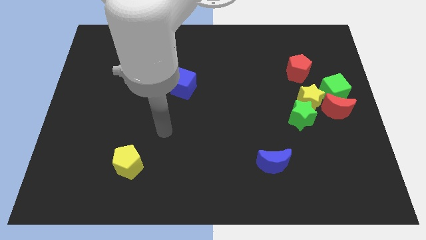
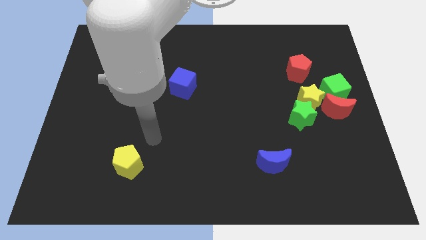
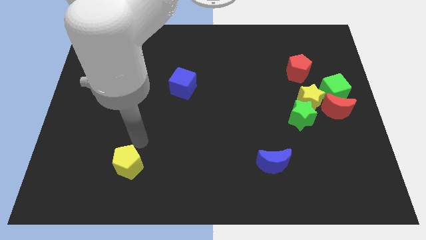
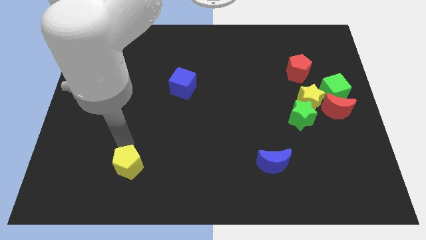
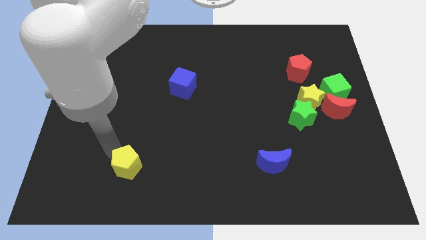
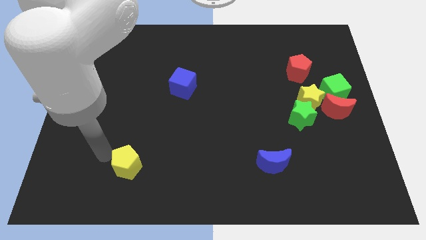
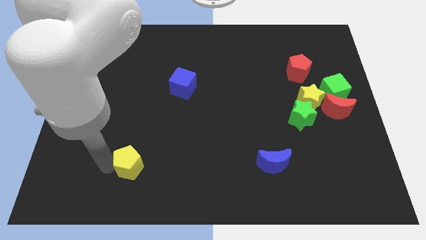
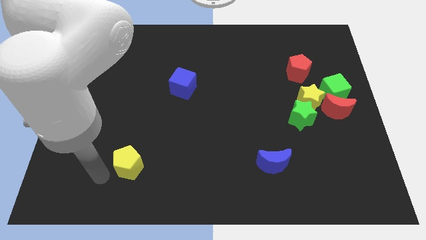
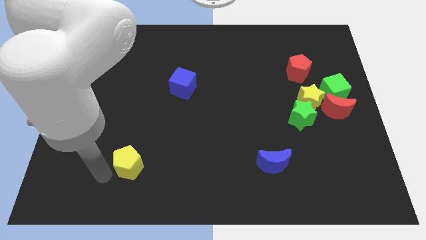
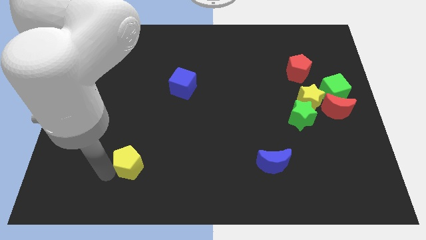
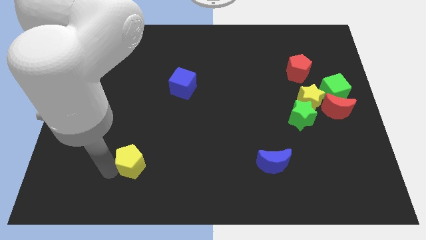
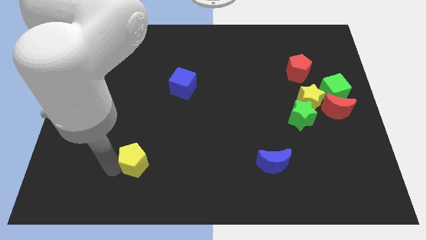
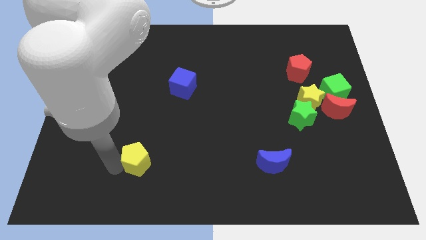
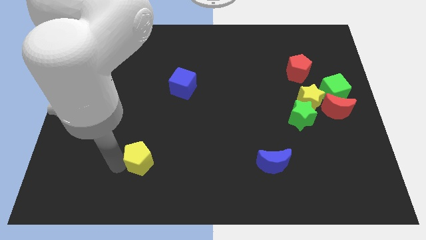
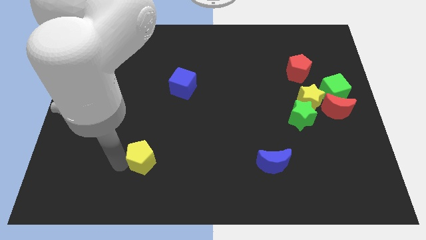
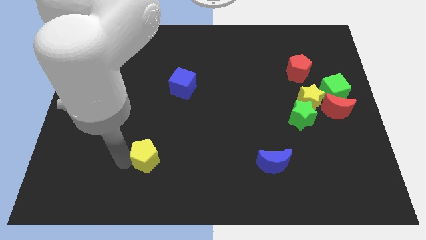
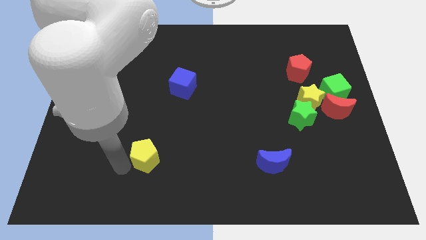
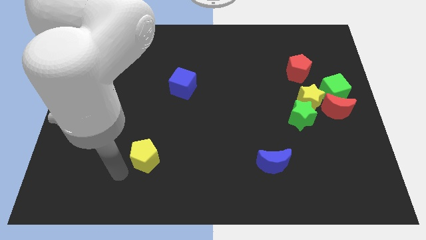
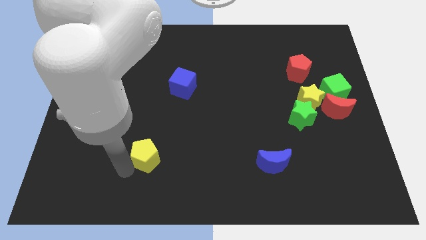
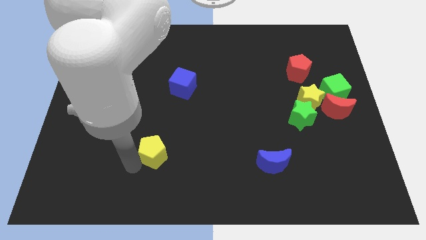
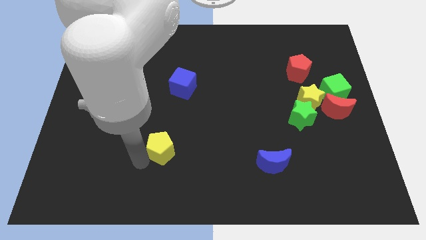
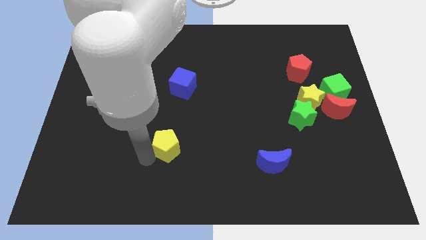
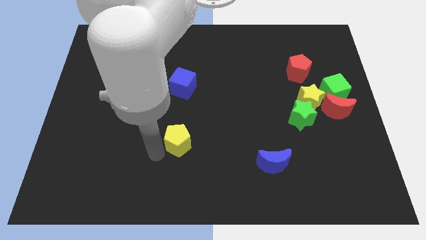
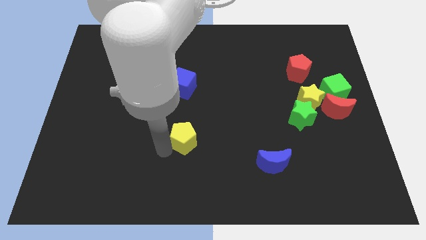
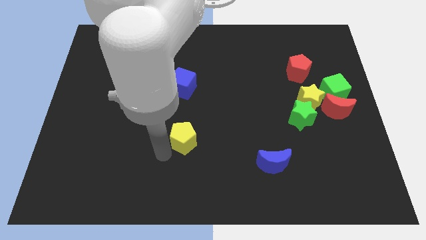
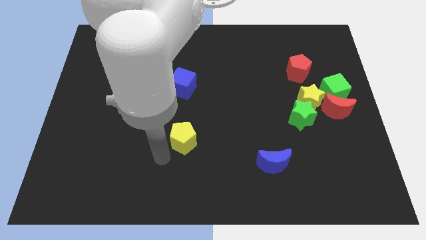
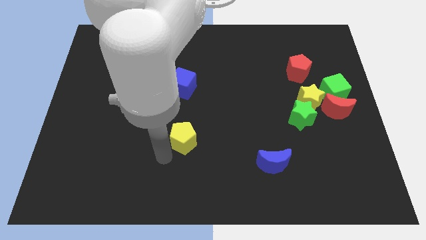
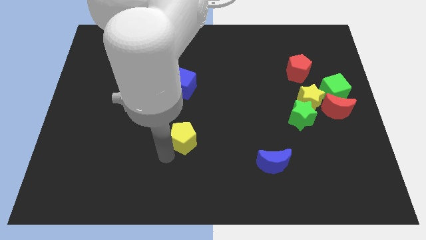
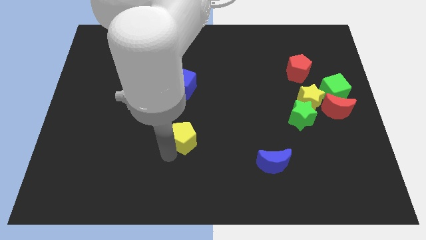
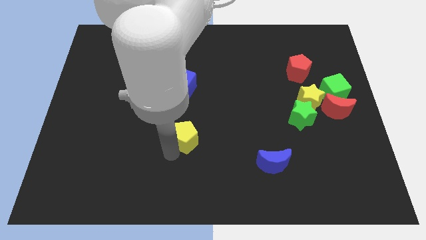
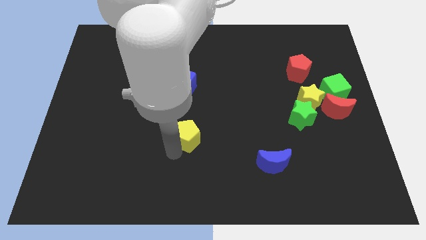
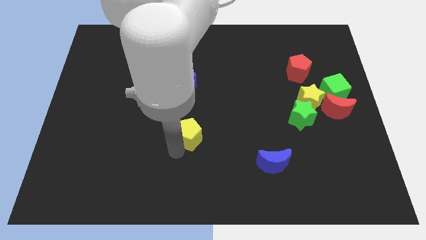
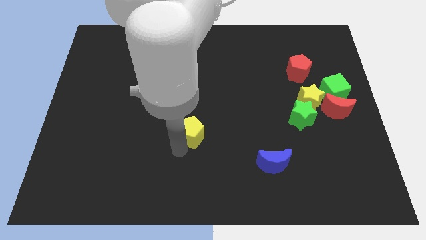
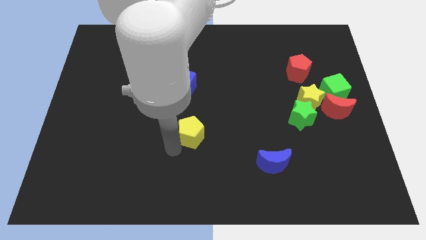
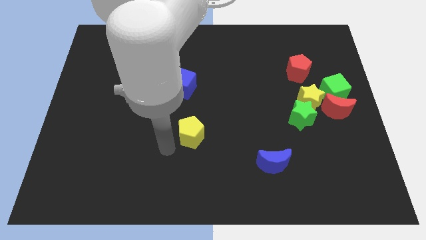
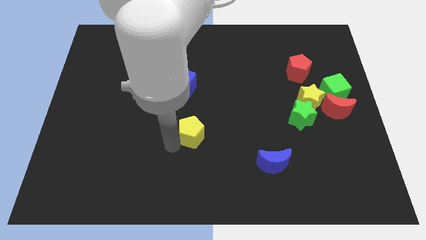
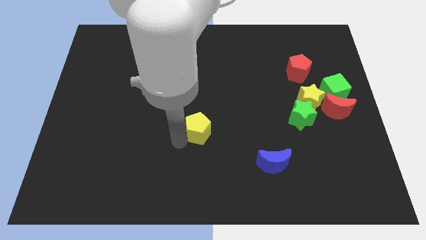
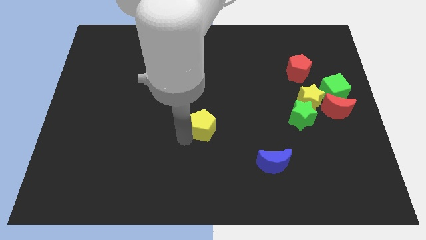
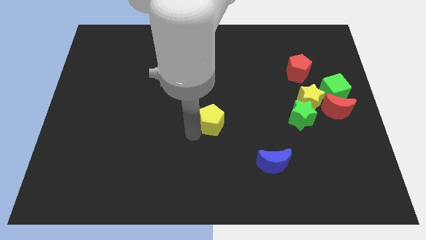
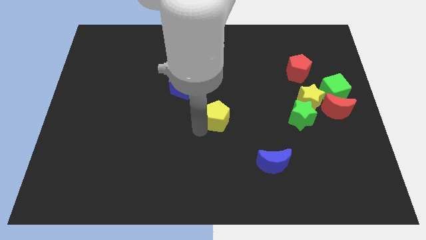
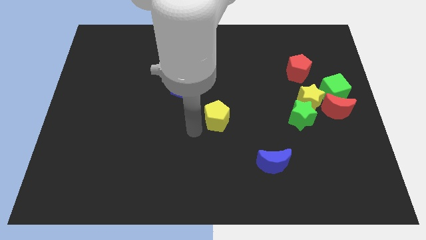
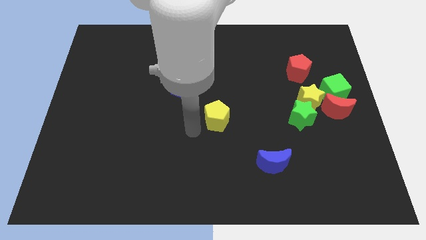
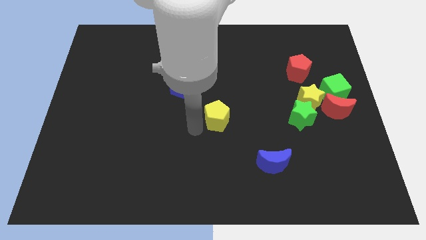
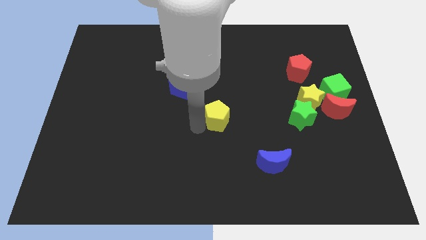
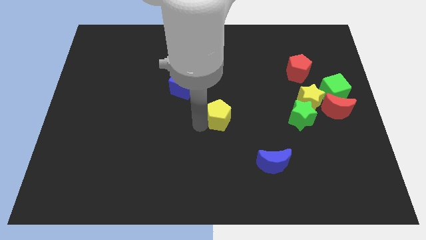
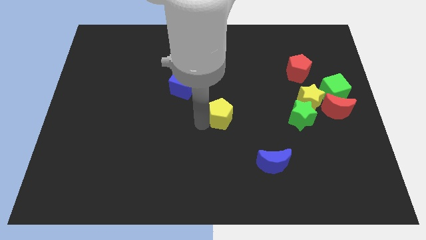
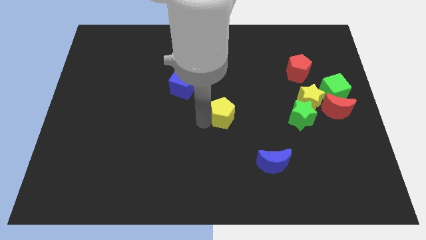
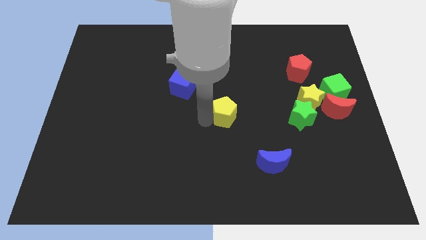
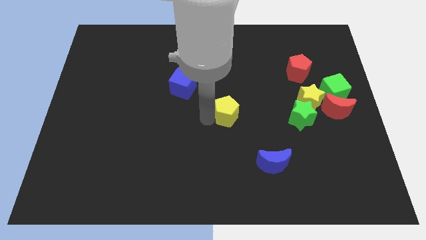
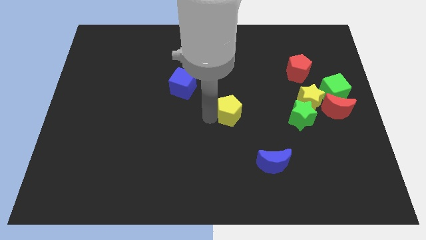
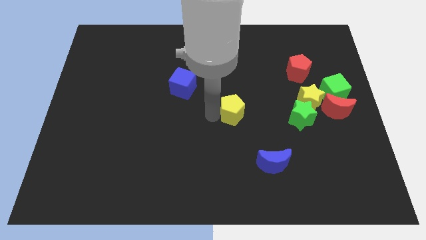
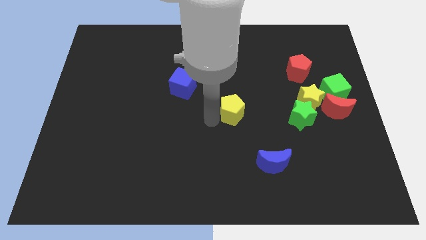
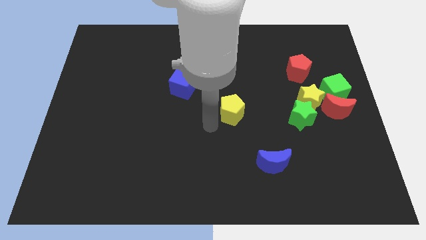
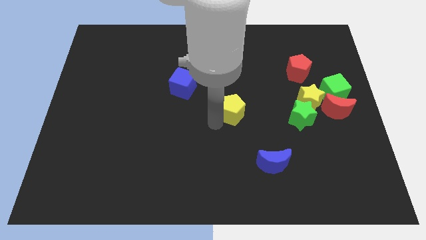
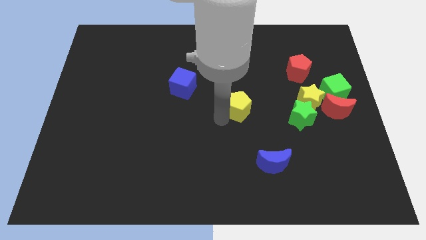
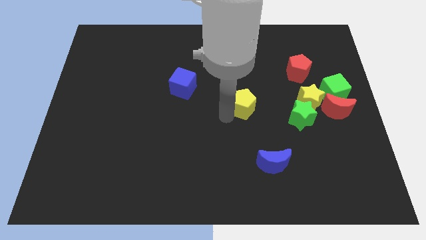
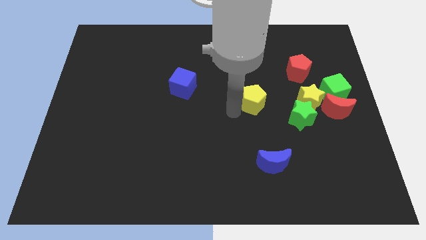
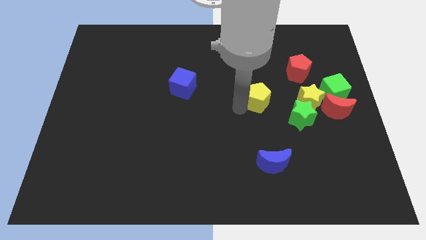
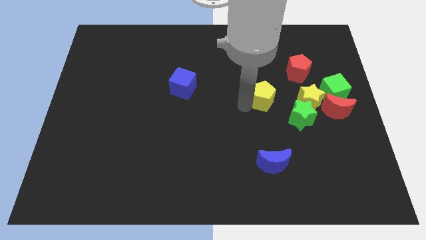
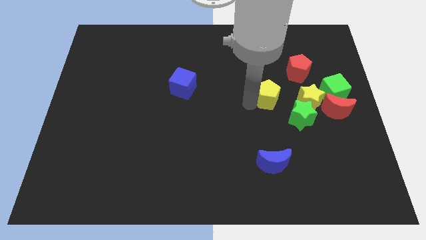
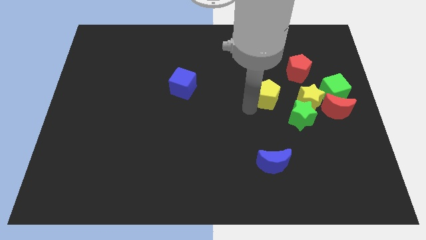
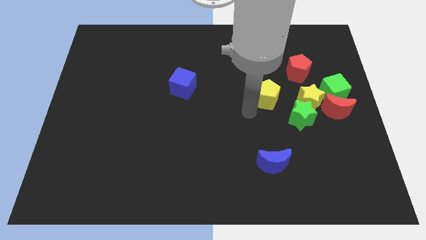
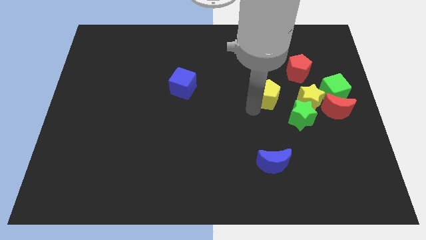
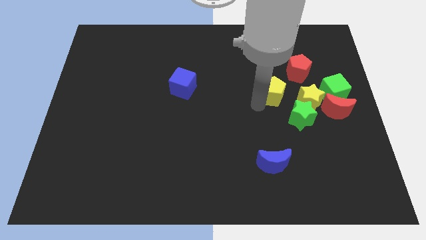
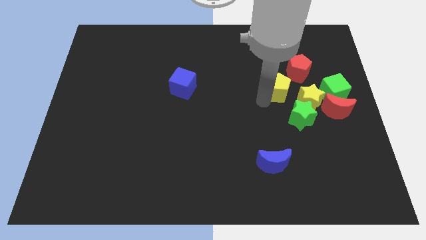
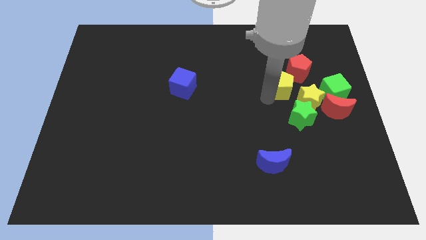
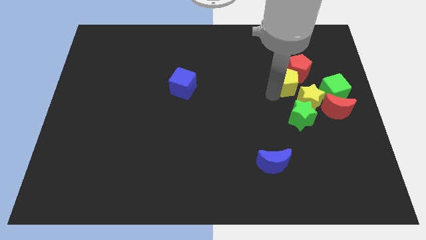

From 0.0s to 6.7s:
push the yellow pentagon to the red pentagon

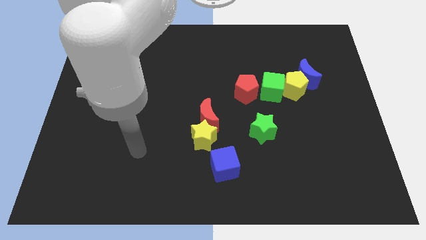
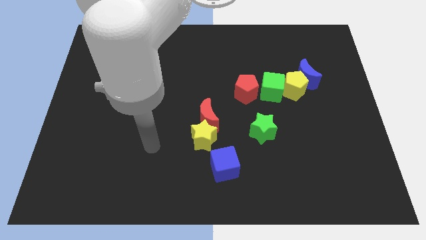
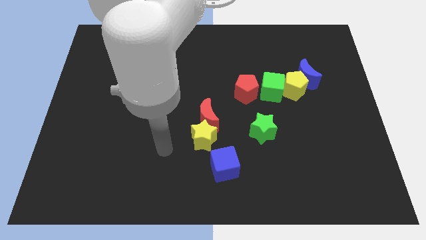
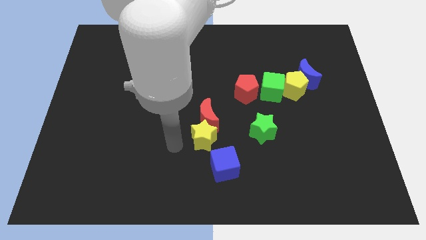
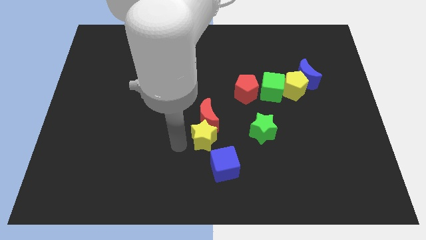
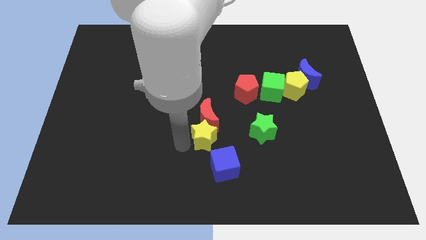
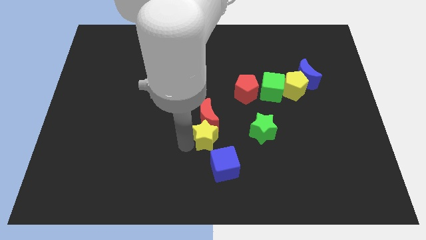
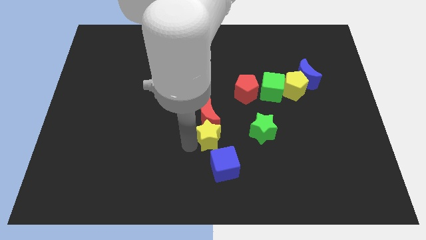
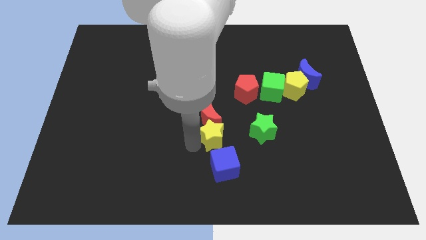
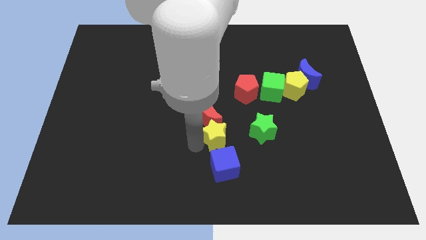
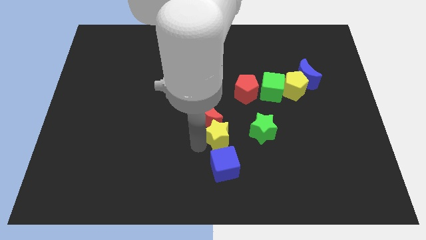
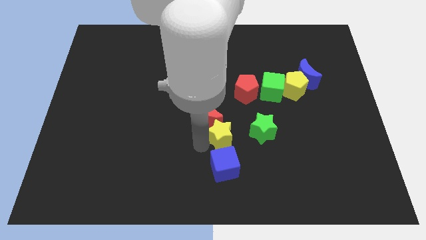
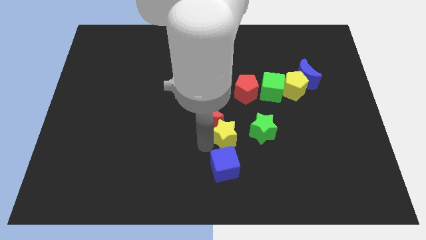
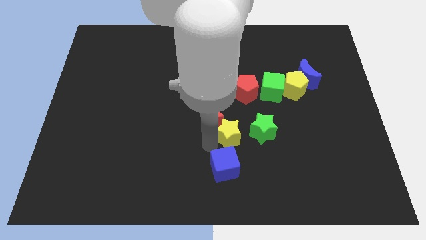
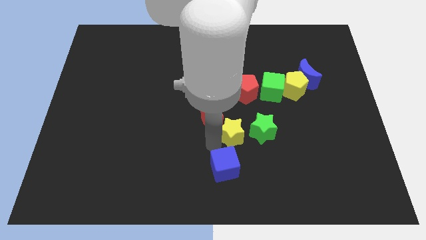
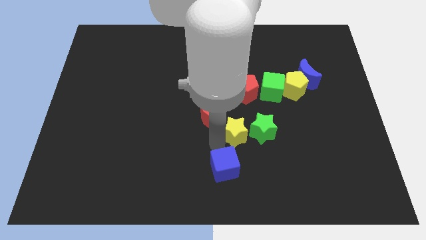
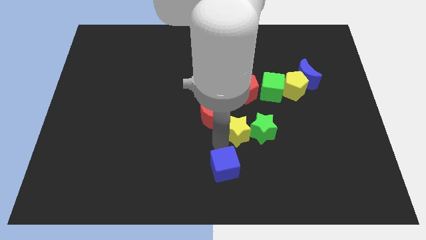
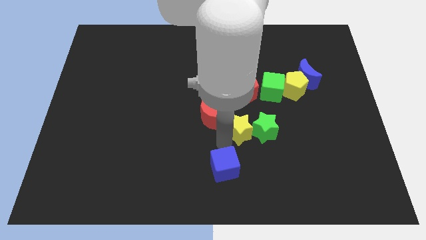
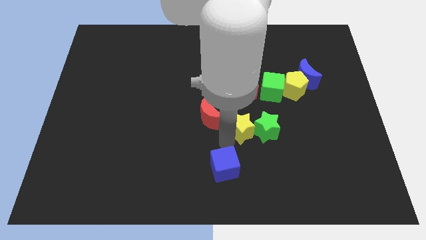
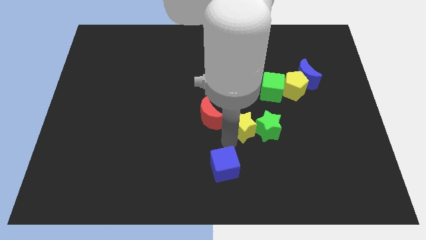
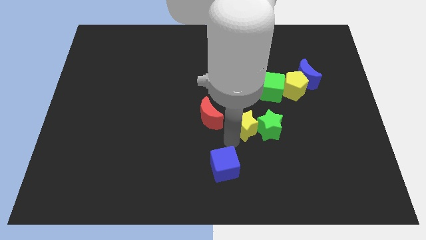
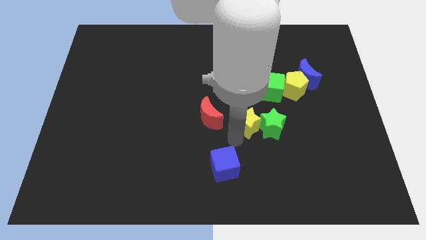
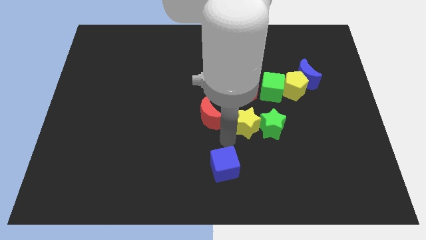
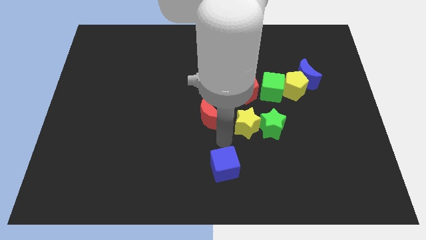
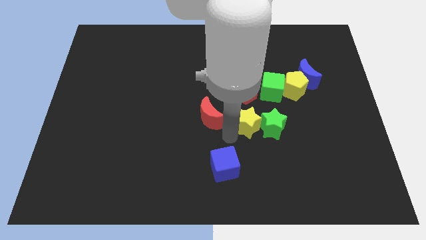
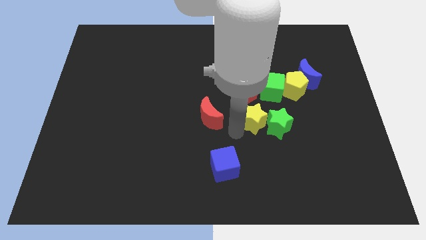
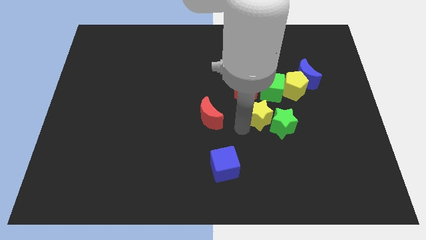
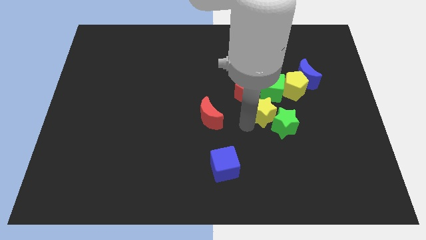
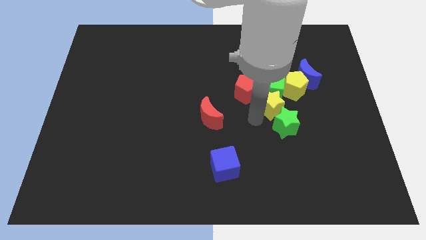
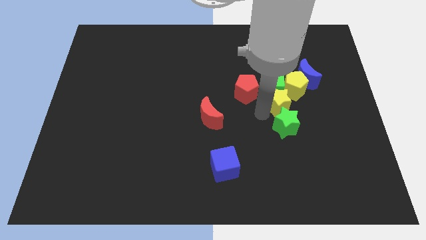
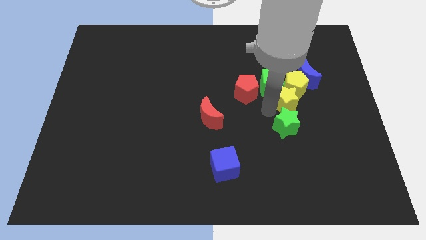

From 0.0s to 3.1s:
slide the yellow star towards the yellow pentagon
